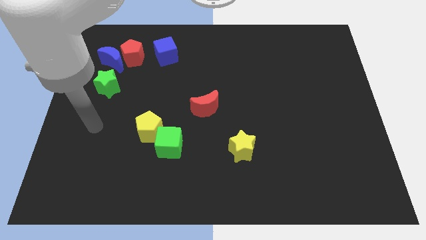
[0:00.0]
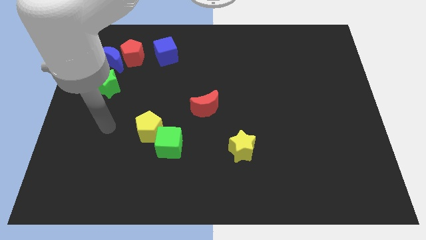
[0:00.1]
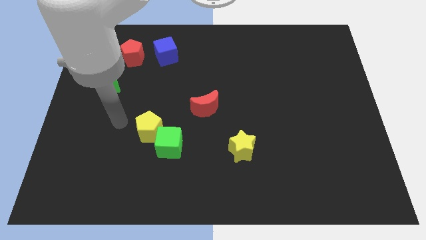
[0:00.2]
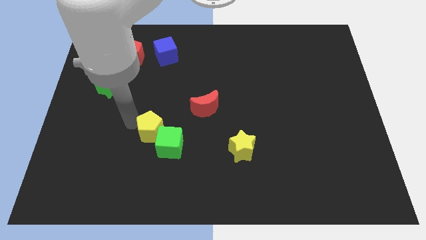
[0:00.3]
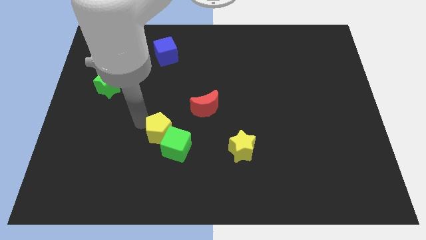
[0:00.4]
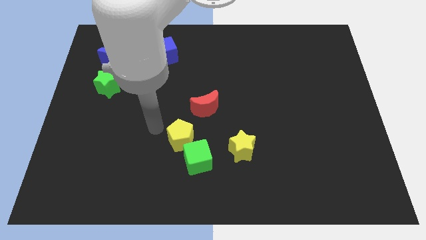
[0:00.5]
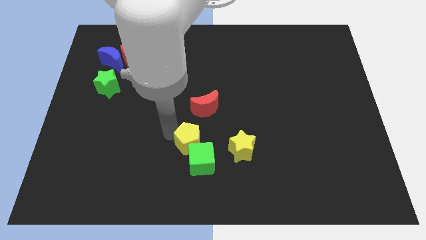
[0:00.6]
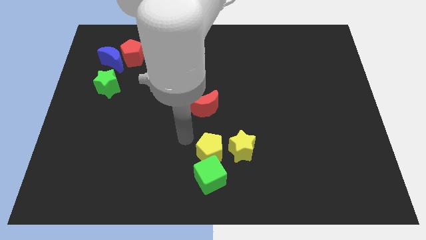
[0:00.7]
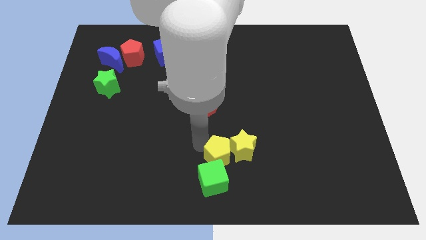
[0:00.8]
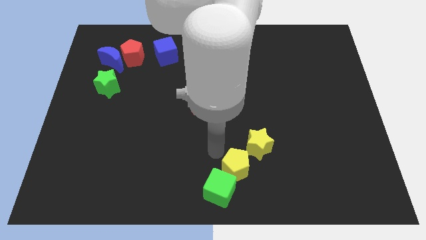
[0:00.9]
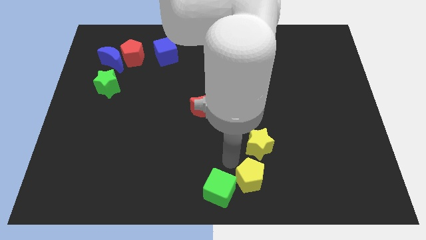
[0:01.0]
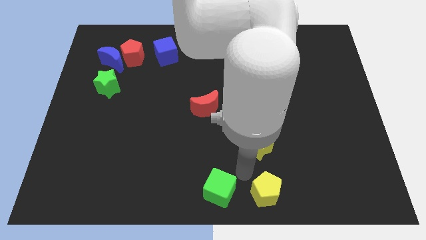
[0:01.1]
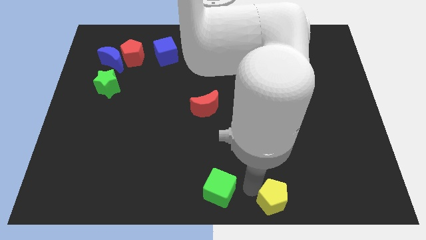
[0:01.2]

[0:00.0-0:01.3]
separate the green cube from the yellow pentagon

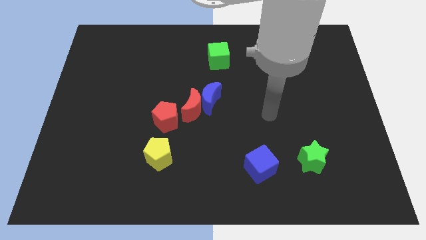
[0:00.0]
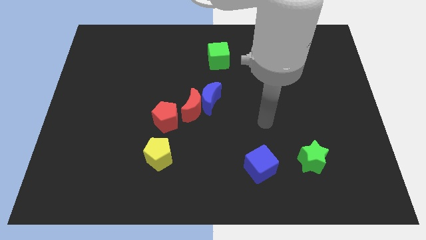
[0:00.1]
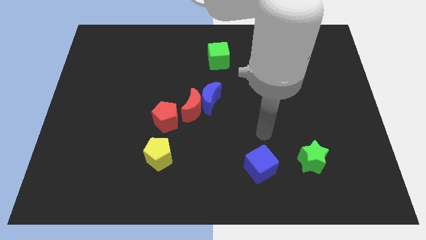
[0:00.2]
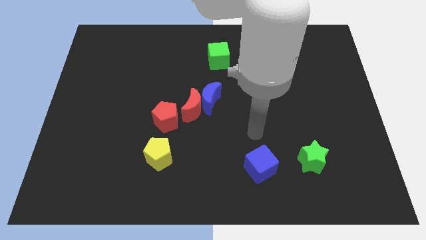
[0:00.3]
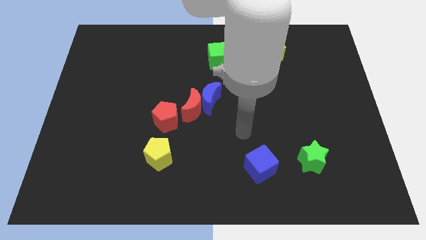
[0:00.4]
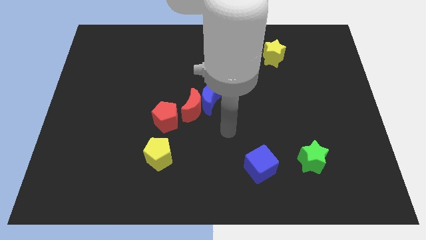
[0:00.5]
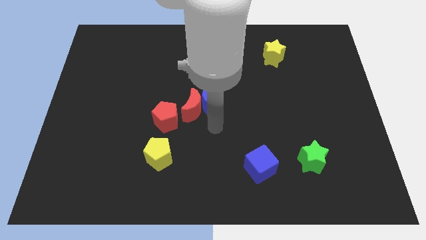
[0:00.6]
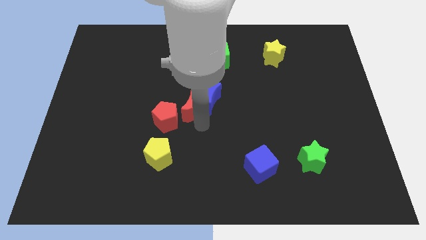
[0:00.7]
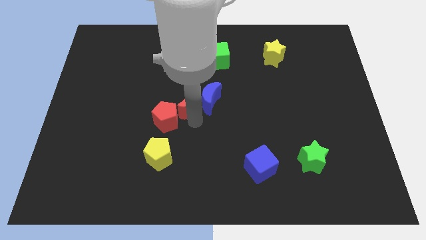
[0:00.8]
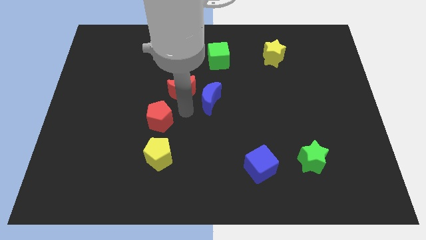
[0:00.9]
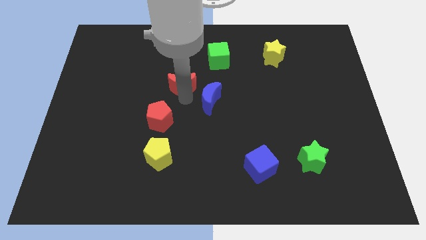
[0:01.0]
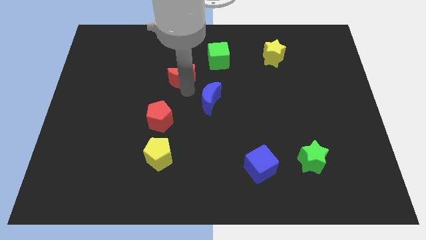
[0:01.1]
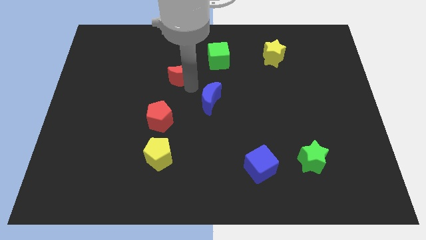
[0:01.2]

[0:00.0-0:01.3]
separate the blue moon from the red moon

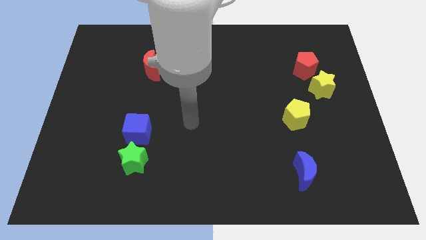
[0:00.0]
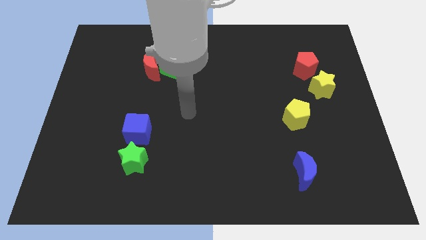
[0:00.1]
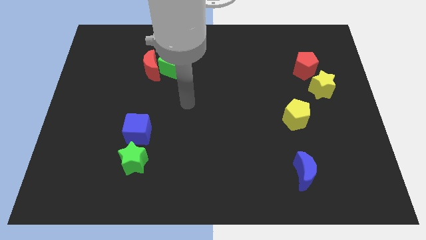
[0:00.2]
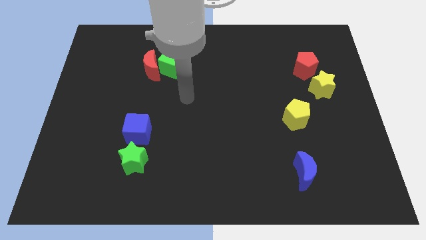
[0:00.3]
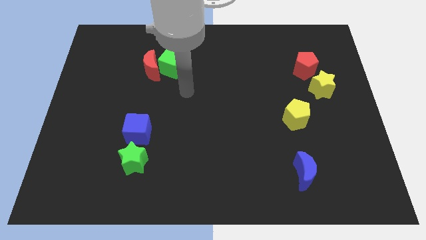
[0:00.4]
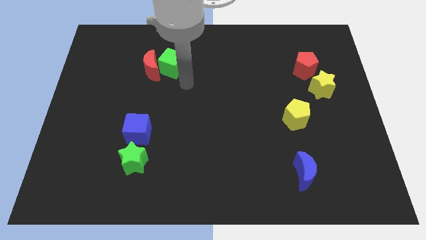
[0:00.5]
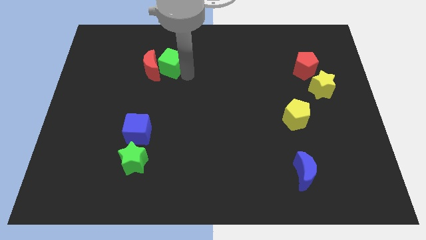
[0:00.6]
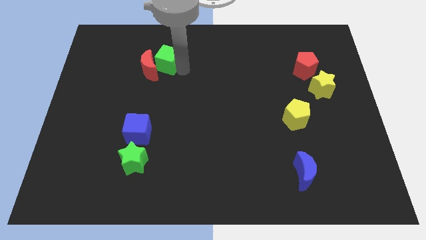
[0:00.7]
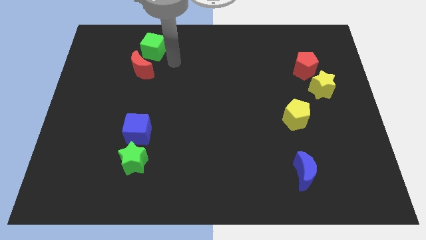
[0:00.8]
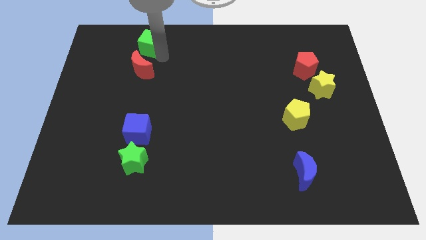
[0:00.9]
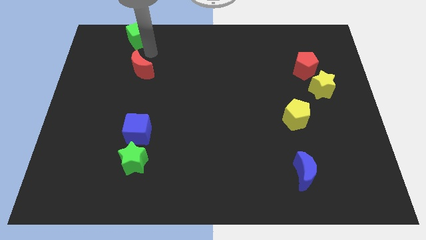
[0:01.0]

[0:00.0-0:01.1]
pull the red moon apart from the green cube

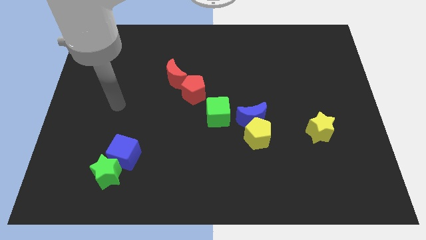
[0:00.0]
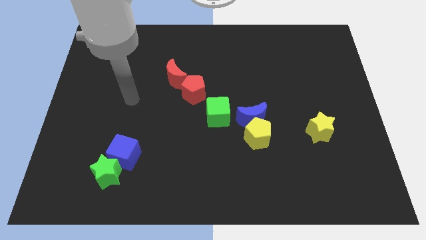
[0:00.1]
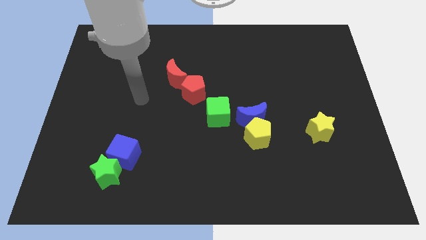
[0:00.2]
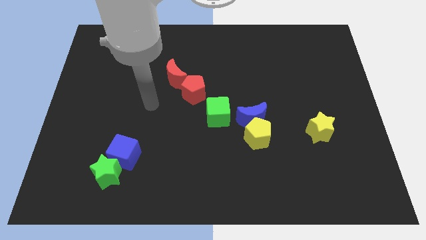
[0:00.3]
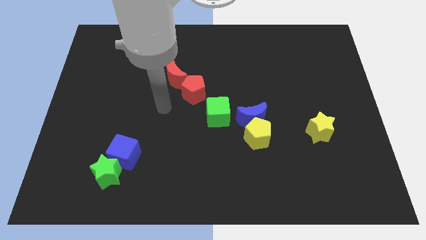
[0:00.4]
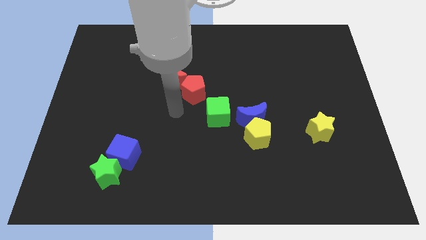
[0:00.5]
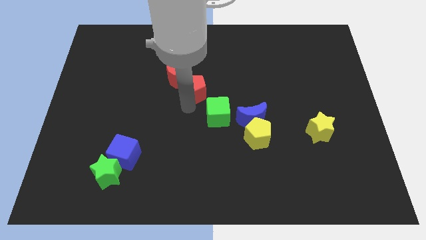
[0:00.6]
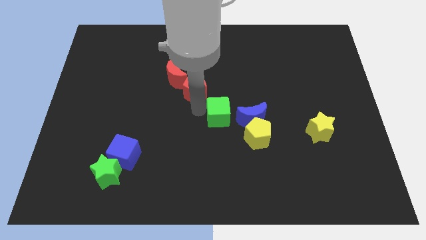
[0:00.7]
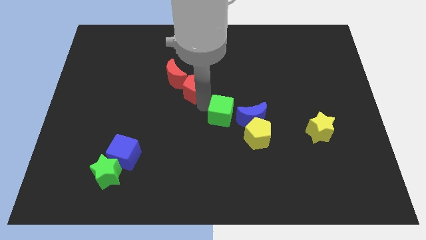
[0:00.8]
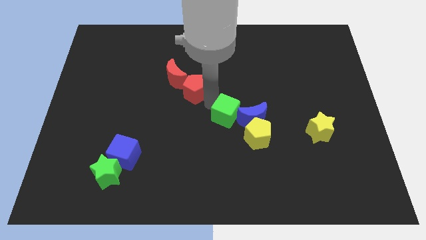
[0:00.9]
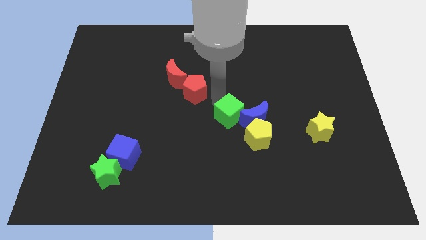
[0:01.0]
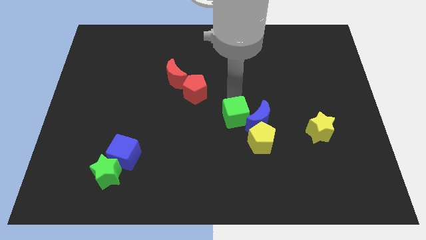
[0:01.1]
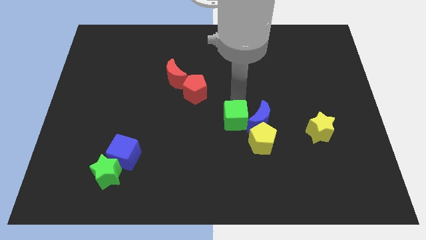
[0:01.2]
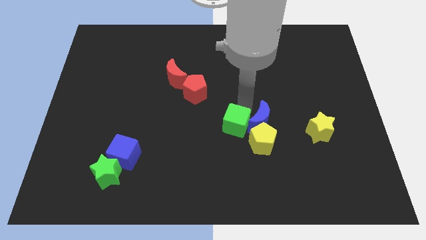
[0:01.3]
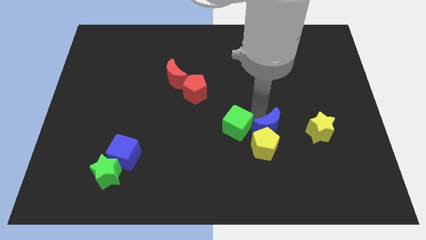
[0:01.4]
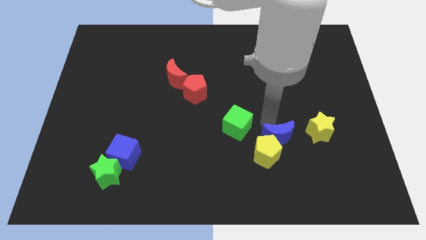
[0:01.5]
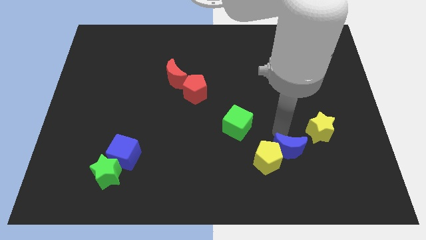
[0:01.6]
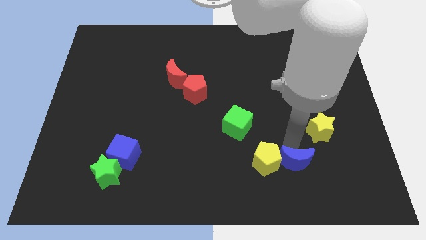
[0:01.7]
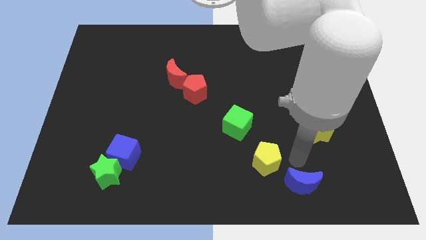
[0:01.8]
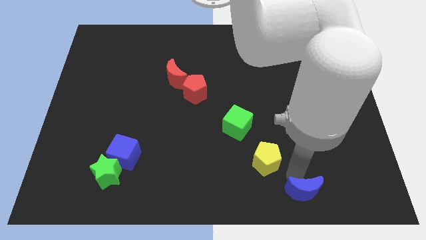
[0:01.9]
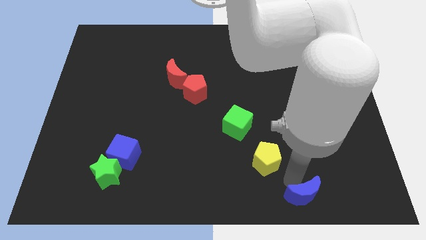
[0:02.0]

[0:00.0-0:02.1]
move the yellow pentagon away from the blue moon

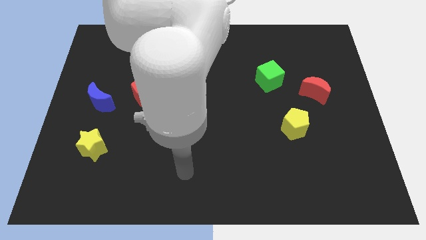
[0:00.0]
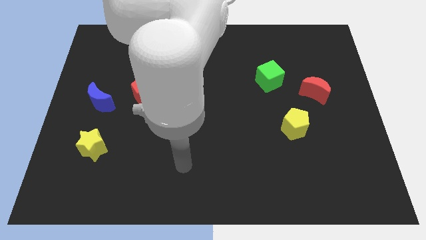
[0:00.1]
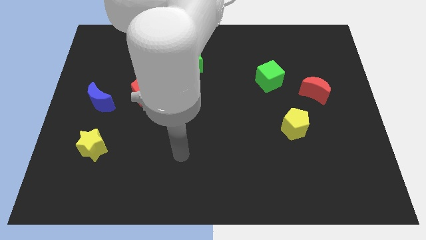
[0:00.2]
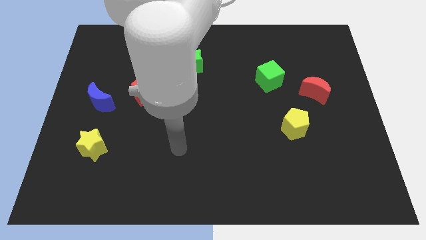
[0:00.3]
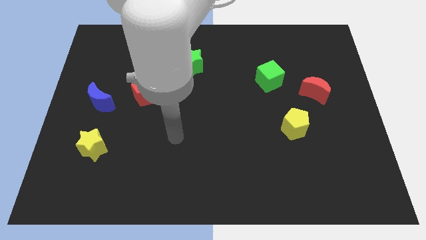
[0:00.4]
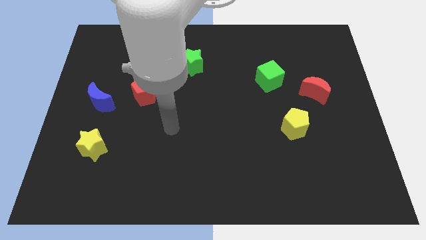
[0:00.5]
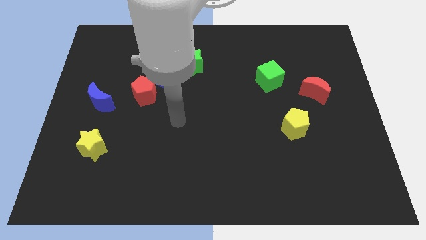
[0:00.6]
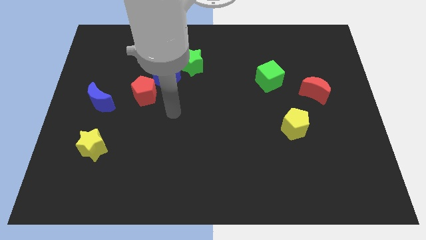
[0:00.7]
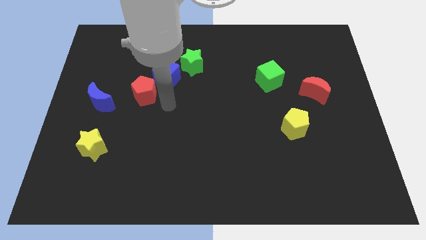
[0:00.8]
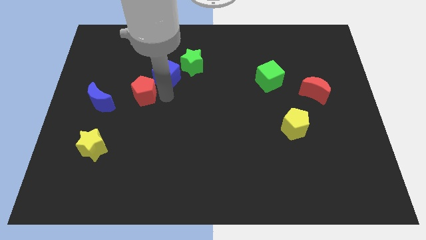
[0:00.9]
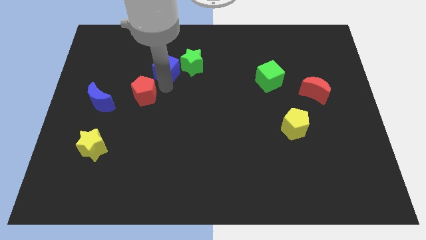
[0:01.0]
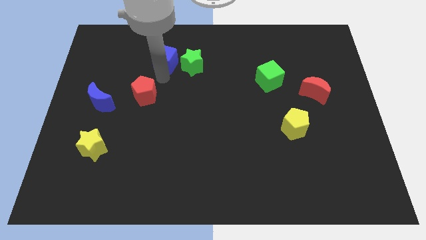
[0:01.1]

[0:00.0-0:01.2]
move the red pentagon away from the blue cube

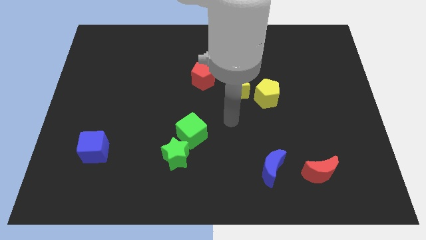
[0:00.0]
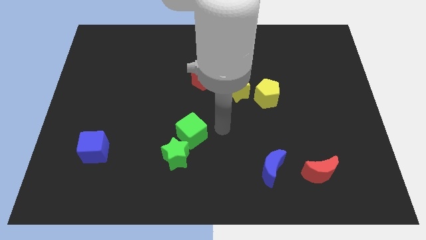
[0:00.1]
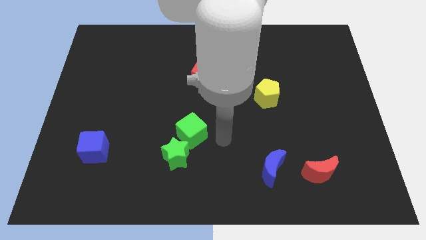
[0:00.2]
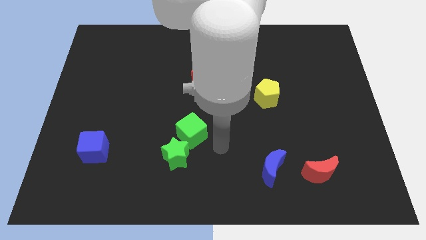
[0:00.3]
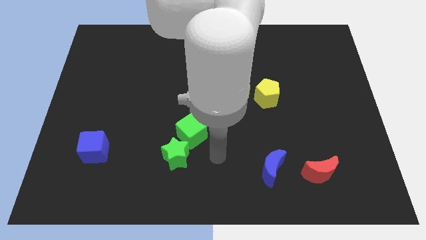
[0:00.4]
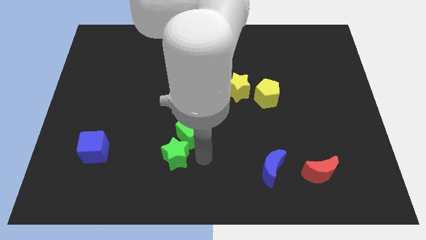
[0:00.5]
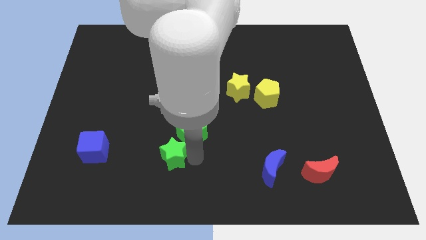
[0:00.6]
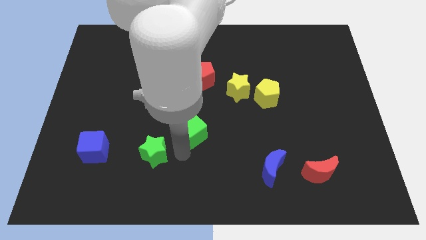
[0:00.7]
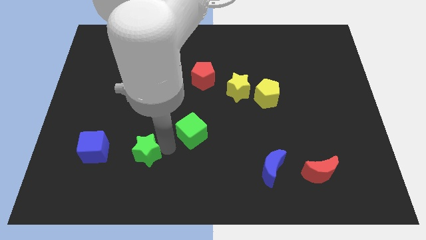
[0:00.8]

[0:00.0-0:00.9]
separate the green cube from the green star

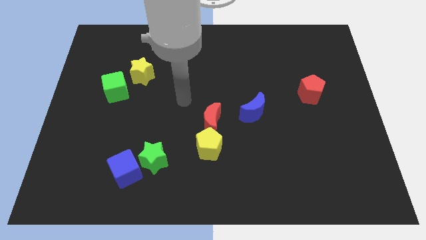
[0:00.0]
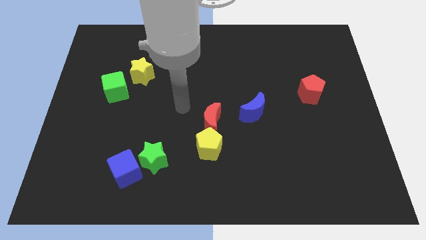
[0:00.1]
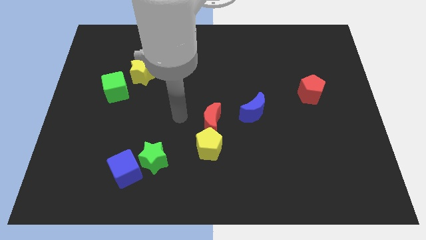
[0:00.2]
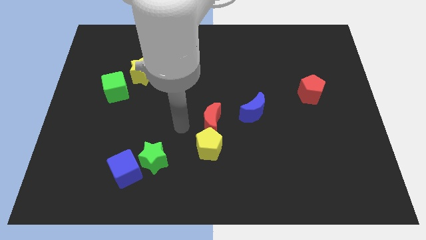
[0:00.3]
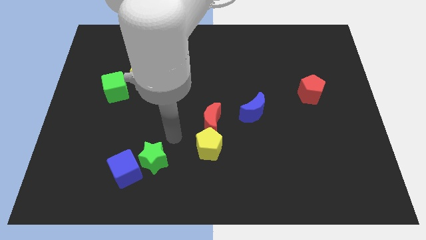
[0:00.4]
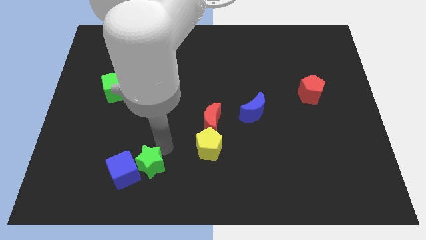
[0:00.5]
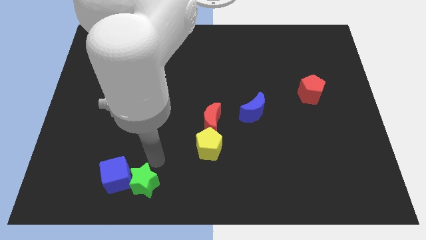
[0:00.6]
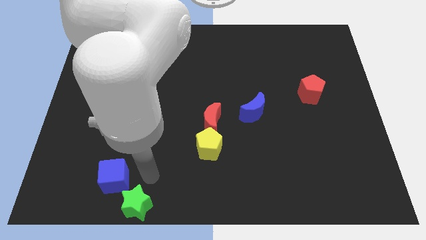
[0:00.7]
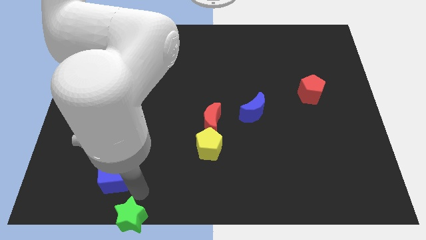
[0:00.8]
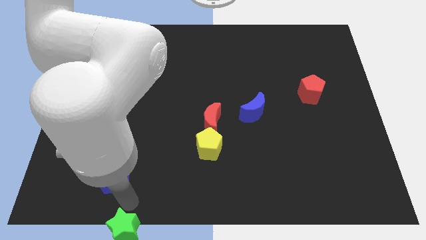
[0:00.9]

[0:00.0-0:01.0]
separate the blue cube from the green star

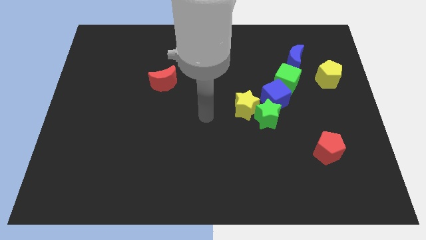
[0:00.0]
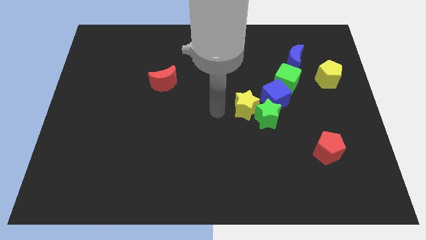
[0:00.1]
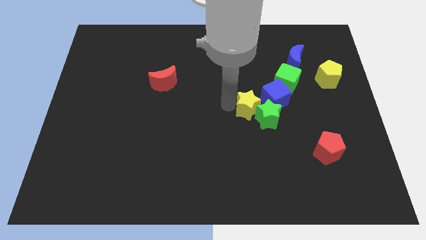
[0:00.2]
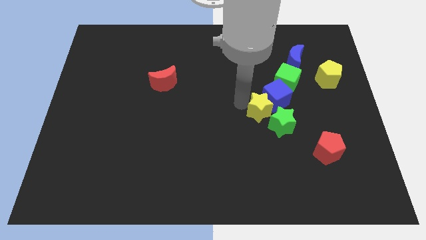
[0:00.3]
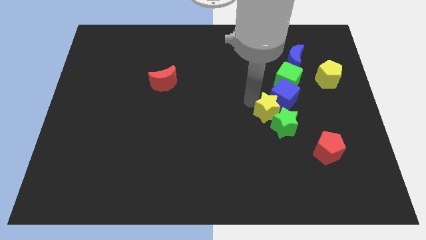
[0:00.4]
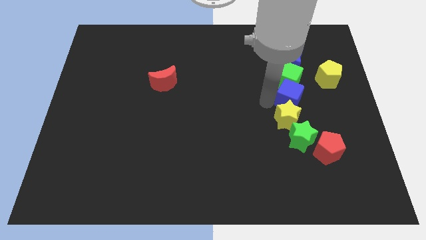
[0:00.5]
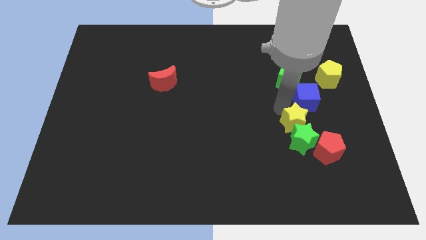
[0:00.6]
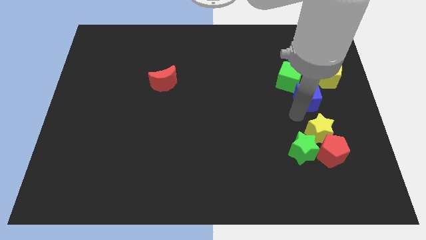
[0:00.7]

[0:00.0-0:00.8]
pull the green star apart from the yellow star and blue cube
